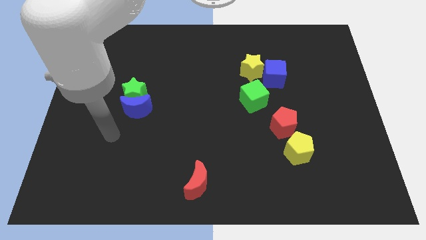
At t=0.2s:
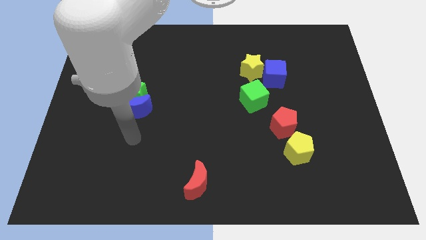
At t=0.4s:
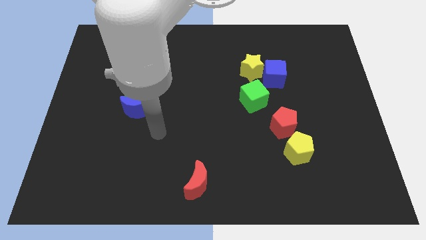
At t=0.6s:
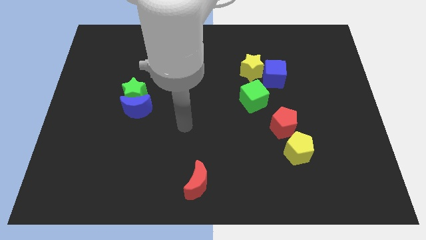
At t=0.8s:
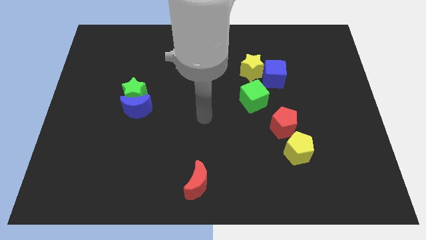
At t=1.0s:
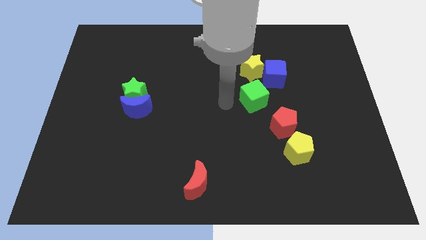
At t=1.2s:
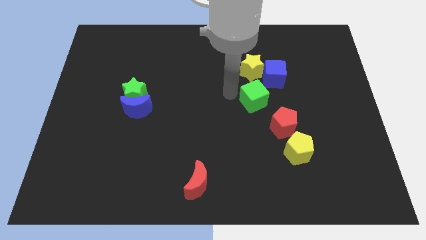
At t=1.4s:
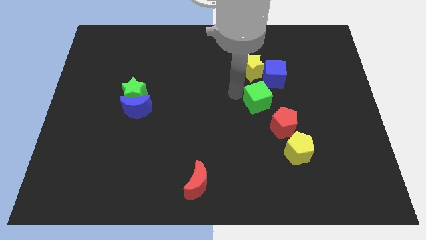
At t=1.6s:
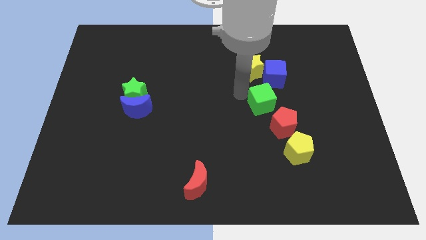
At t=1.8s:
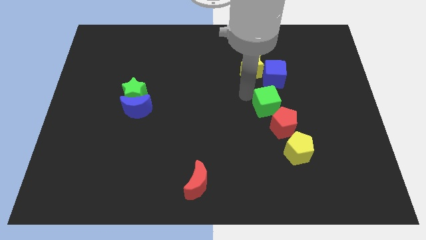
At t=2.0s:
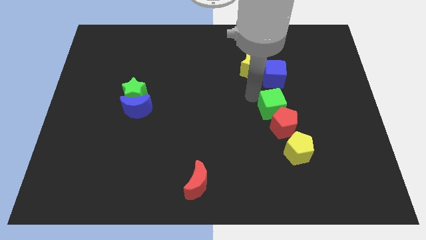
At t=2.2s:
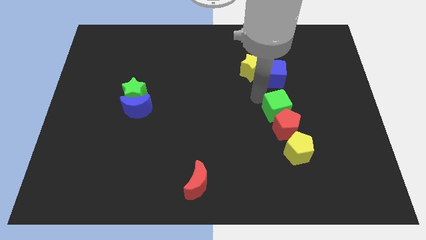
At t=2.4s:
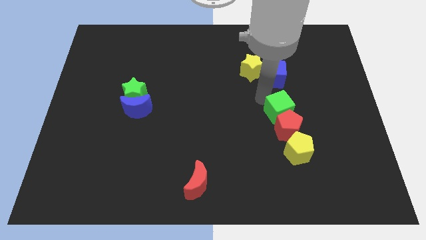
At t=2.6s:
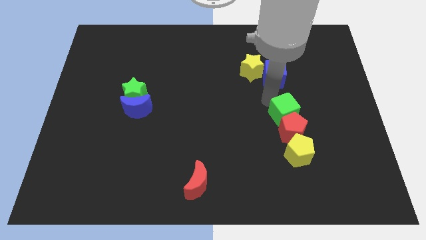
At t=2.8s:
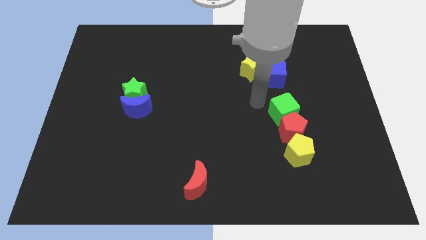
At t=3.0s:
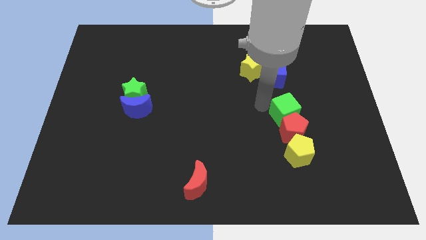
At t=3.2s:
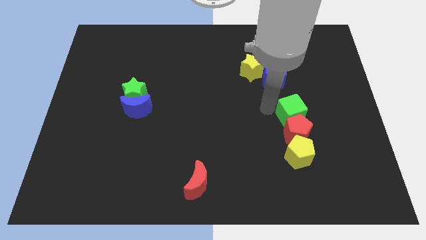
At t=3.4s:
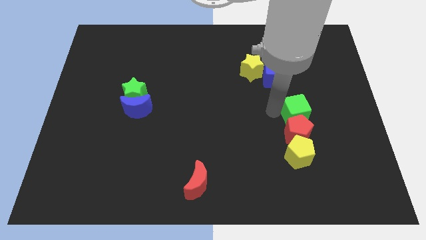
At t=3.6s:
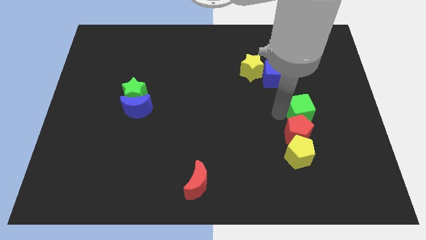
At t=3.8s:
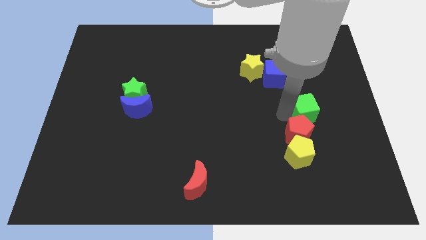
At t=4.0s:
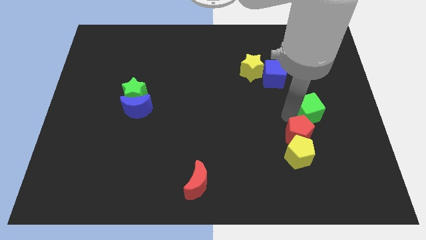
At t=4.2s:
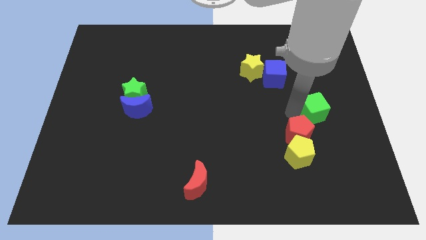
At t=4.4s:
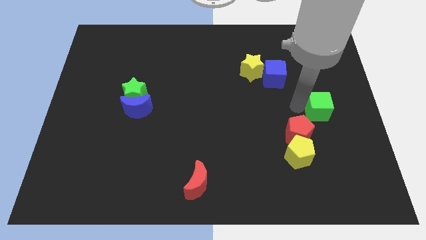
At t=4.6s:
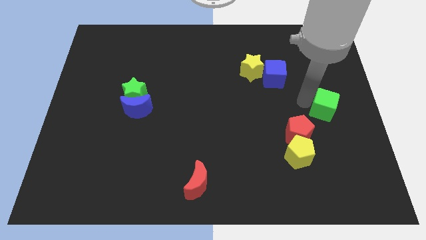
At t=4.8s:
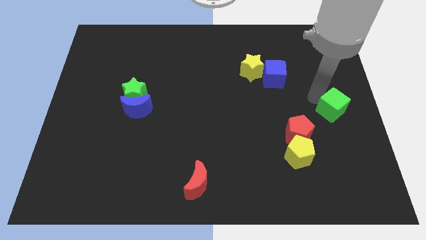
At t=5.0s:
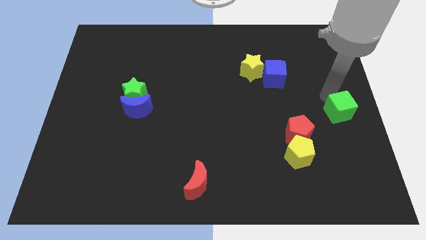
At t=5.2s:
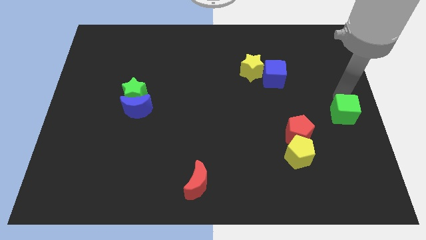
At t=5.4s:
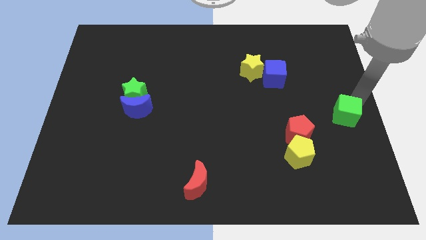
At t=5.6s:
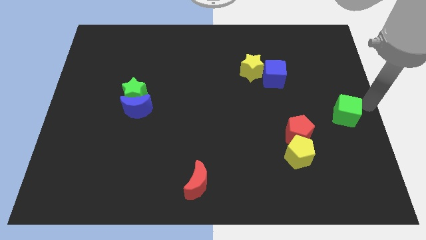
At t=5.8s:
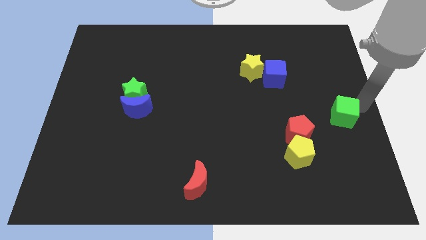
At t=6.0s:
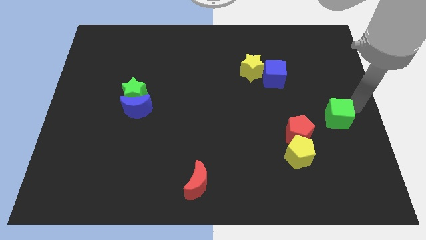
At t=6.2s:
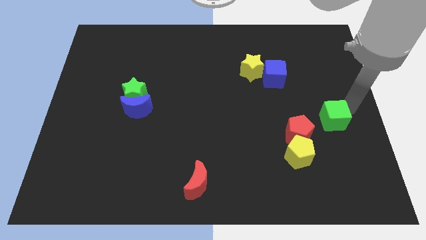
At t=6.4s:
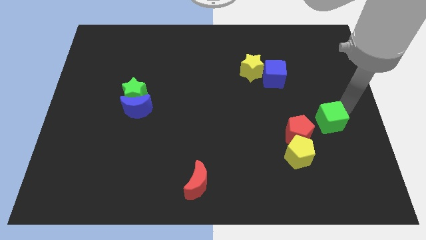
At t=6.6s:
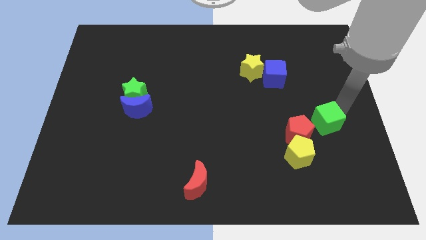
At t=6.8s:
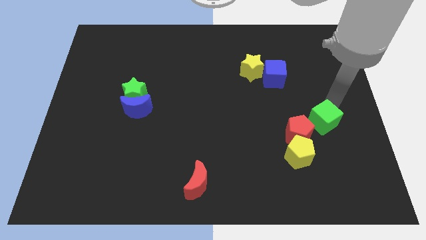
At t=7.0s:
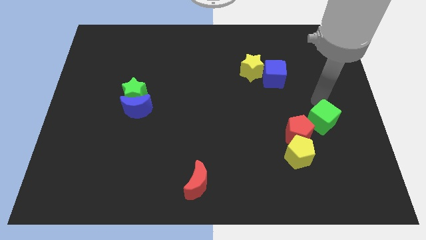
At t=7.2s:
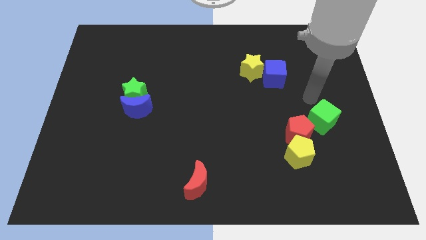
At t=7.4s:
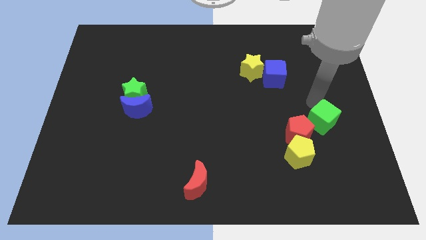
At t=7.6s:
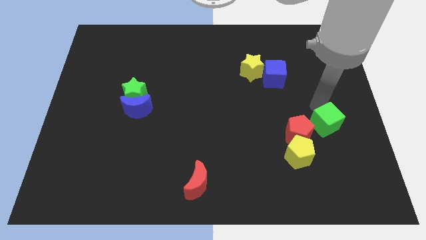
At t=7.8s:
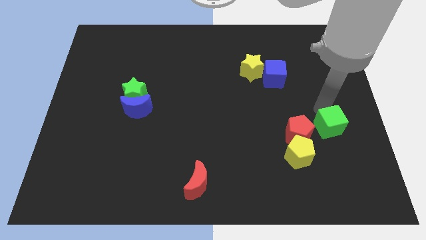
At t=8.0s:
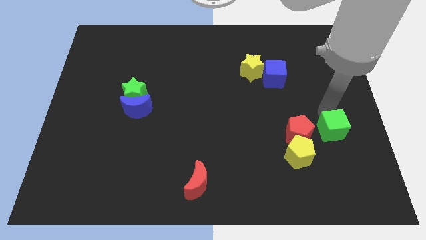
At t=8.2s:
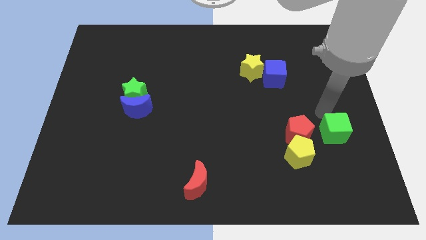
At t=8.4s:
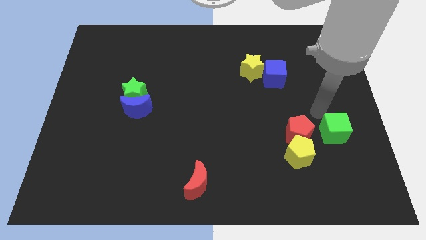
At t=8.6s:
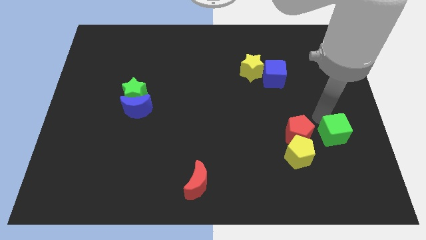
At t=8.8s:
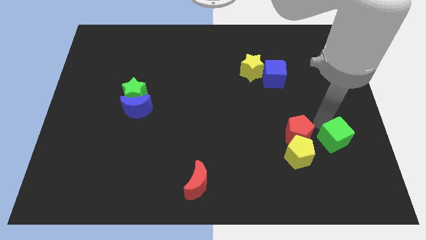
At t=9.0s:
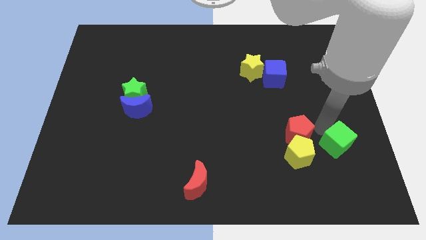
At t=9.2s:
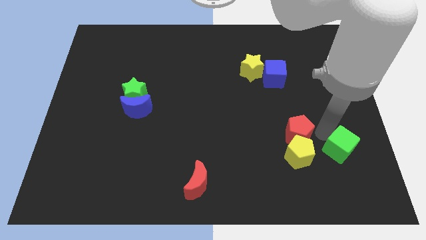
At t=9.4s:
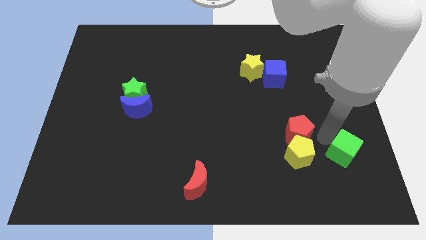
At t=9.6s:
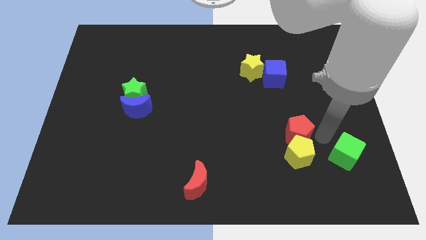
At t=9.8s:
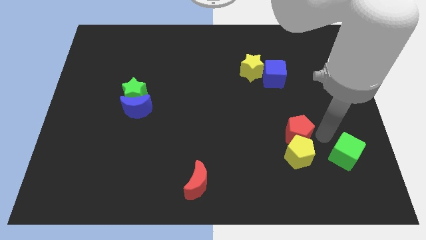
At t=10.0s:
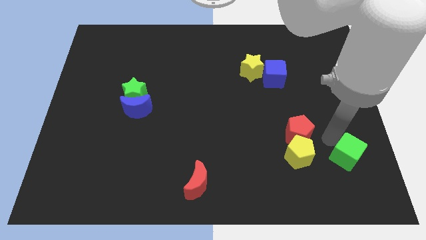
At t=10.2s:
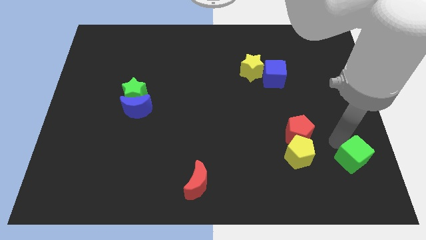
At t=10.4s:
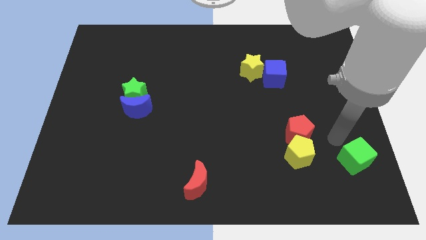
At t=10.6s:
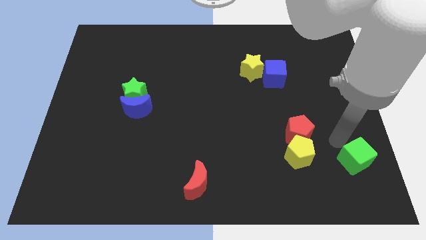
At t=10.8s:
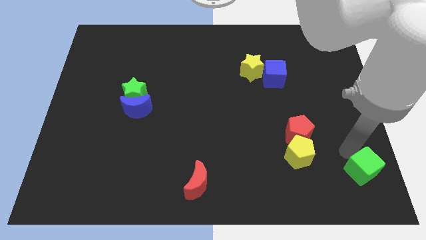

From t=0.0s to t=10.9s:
slide the green cube to the bottom right corner
